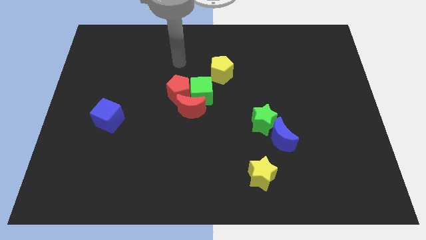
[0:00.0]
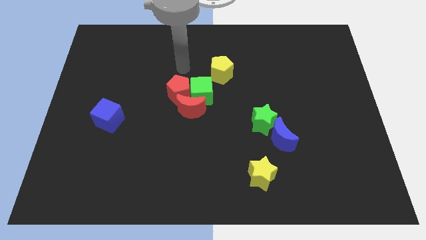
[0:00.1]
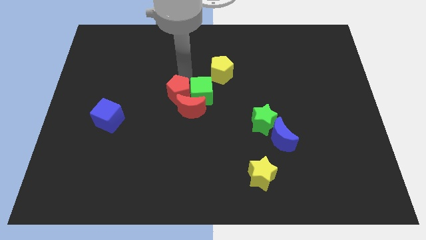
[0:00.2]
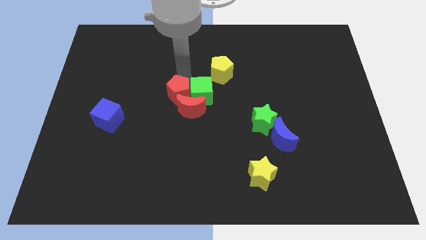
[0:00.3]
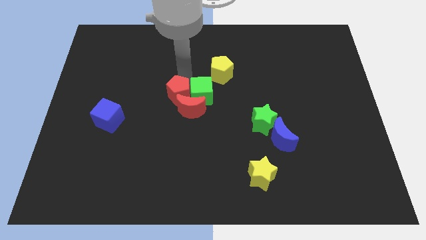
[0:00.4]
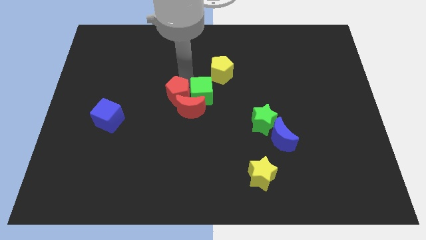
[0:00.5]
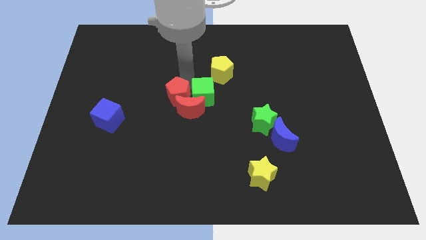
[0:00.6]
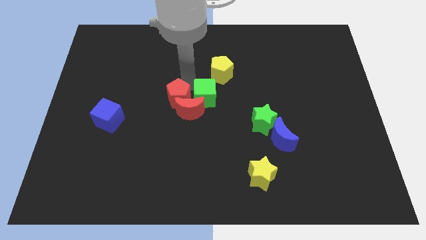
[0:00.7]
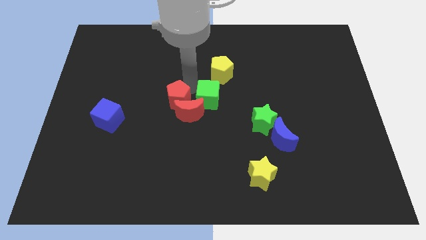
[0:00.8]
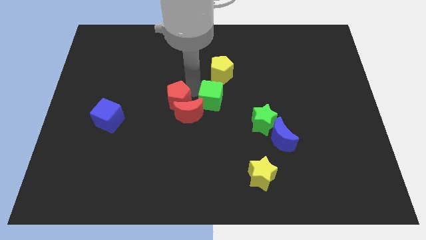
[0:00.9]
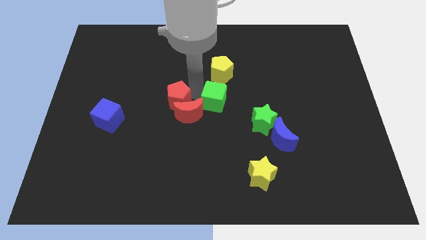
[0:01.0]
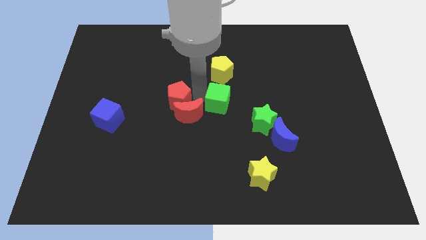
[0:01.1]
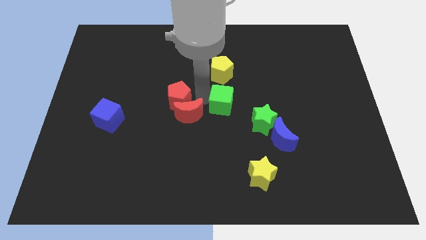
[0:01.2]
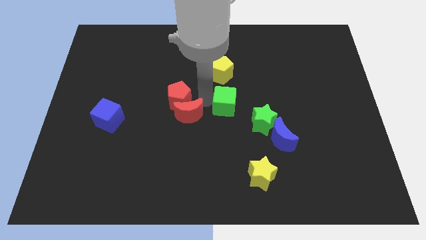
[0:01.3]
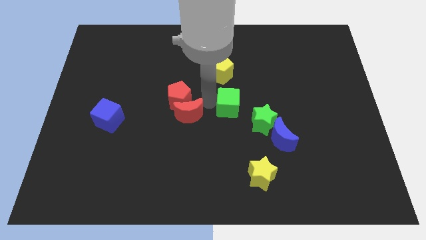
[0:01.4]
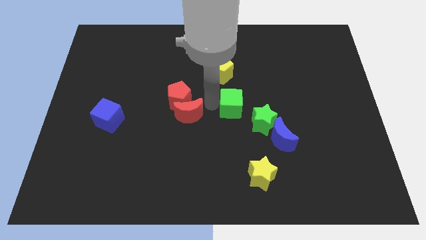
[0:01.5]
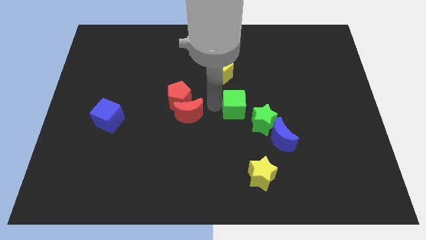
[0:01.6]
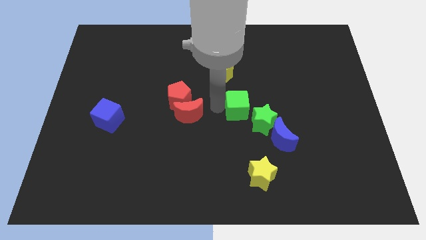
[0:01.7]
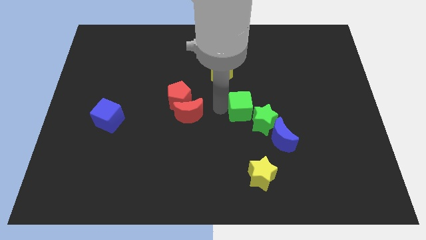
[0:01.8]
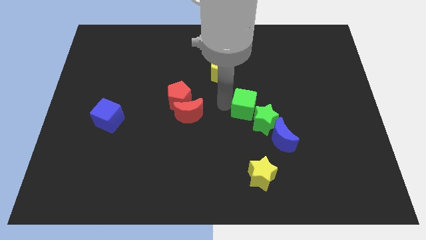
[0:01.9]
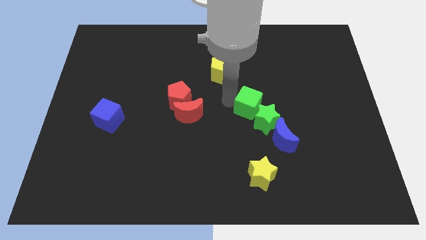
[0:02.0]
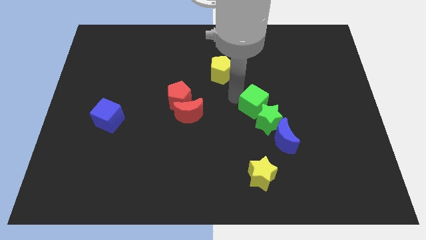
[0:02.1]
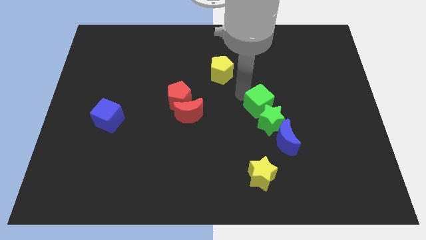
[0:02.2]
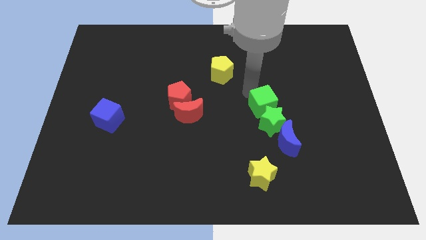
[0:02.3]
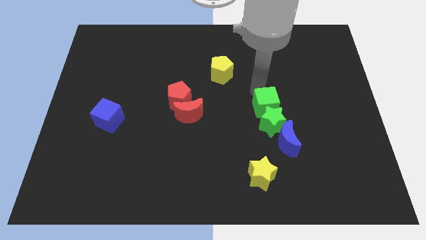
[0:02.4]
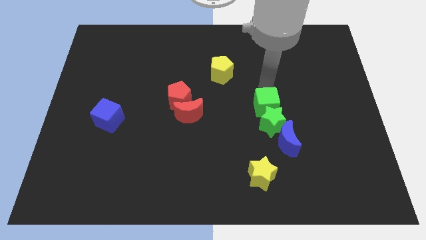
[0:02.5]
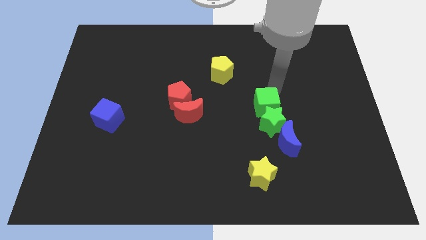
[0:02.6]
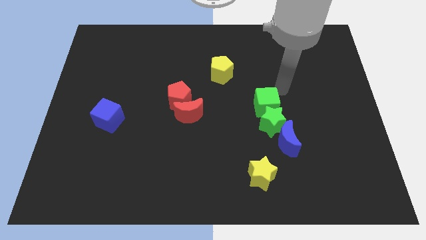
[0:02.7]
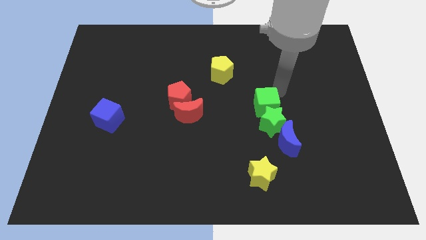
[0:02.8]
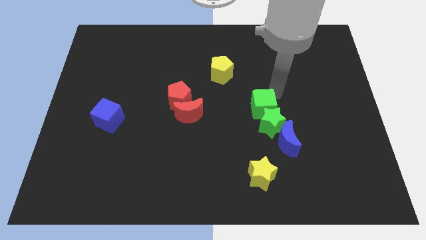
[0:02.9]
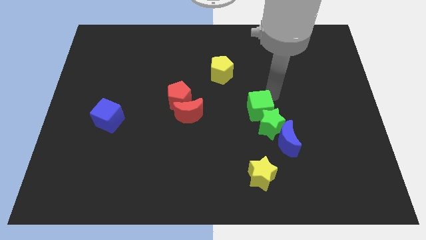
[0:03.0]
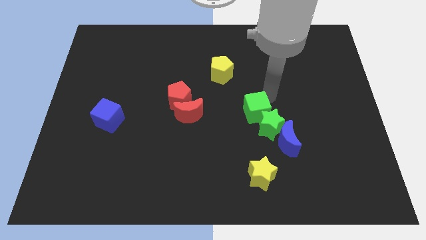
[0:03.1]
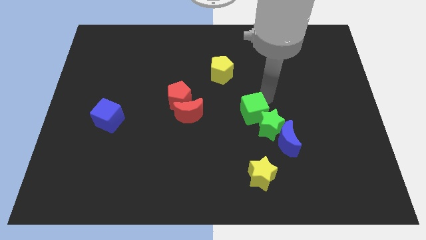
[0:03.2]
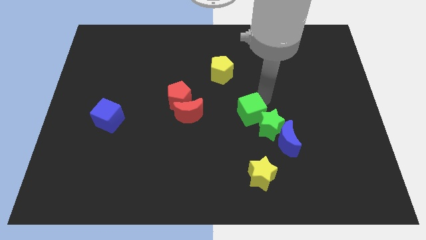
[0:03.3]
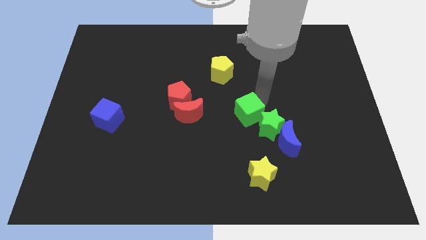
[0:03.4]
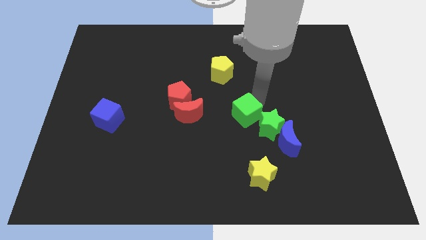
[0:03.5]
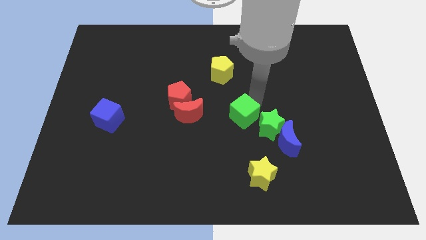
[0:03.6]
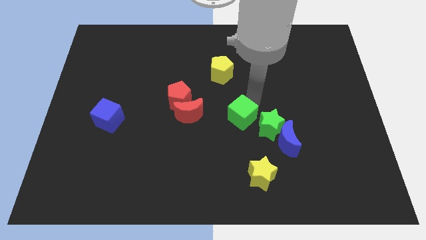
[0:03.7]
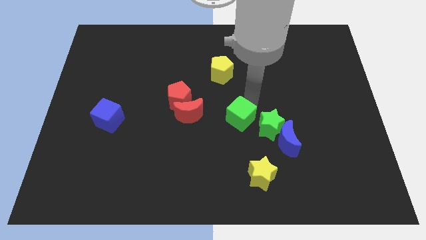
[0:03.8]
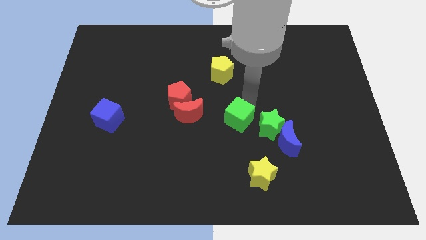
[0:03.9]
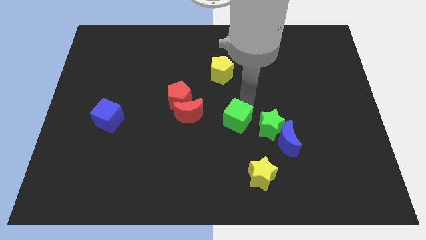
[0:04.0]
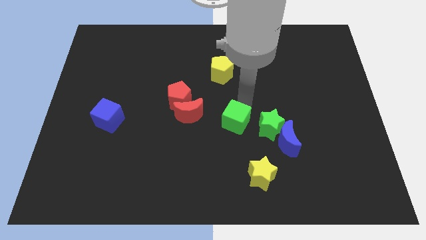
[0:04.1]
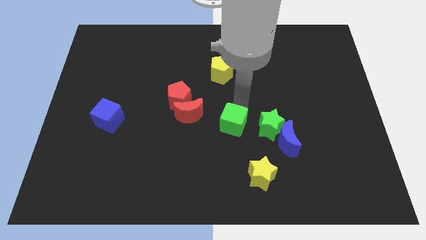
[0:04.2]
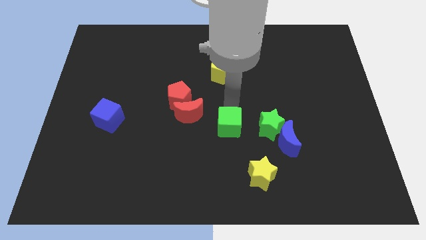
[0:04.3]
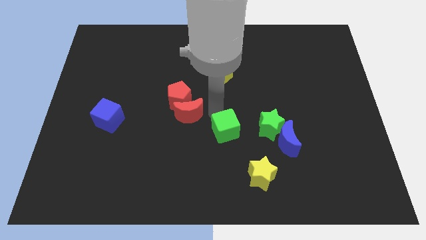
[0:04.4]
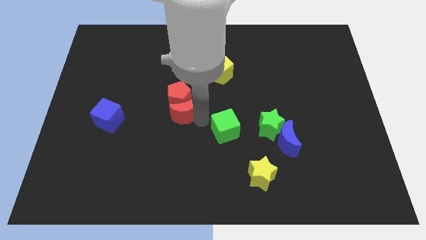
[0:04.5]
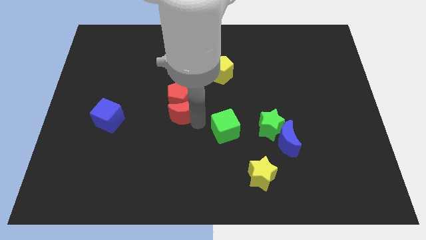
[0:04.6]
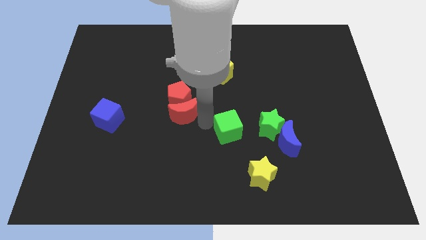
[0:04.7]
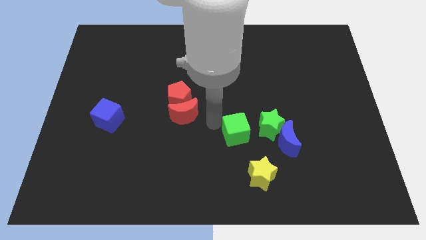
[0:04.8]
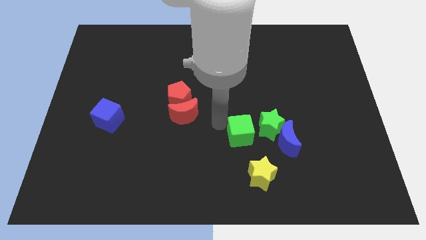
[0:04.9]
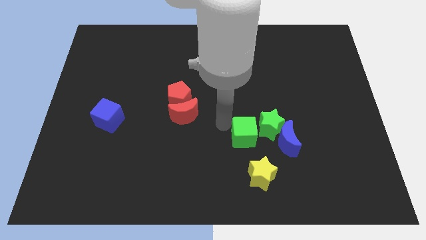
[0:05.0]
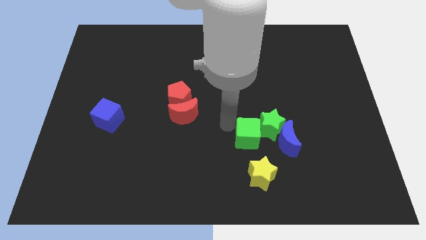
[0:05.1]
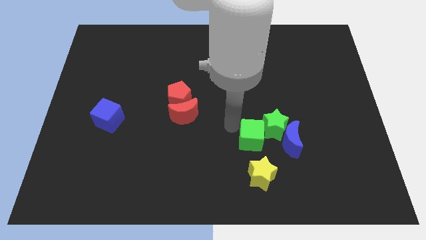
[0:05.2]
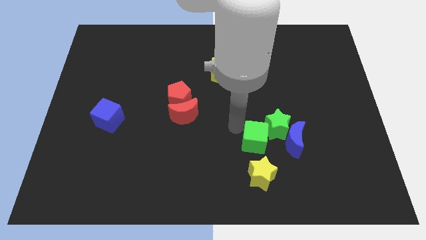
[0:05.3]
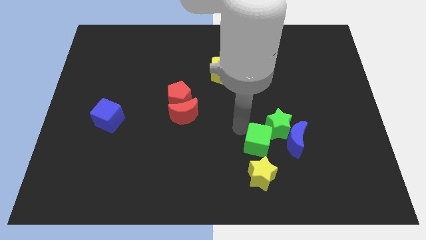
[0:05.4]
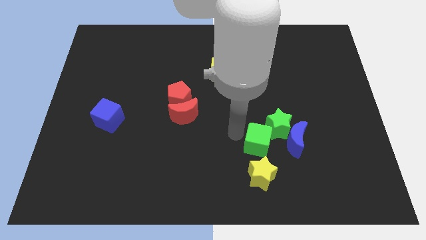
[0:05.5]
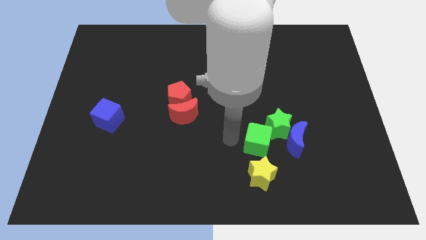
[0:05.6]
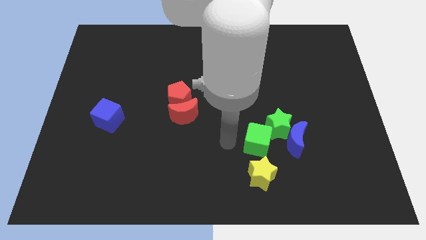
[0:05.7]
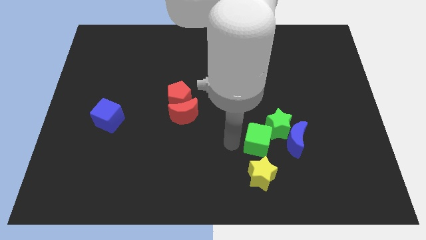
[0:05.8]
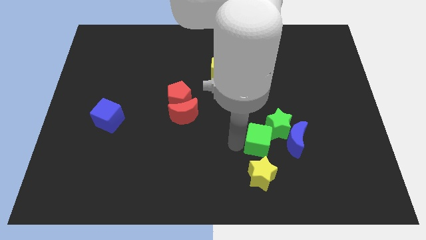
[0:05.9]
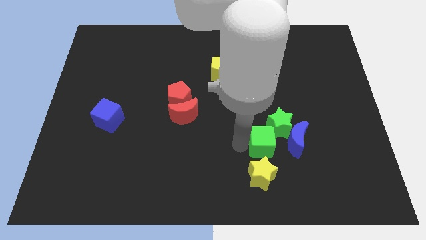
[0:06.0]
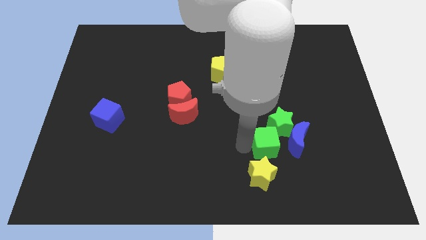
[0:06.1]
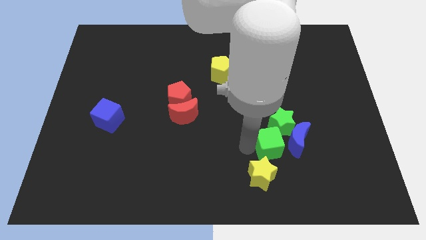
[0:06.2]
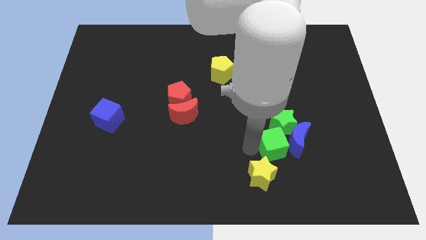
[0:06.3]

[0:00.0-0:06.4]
slide the green cube to the blue moon

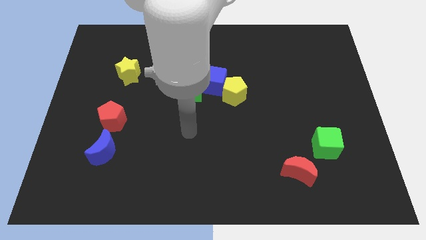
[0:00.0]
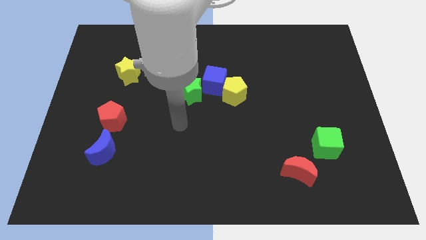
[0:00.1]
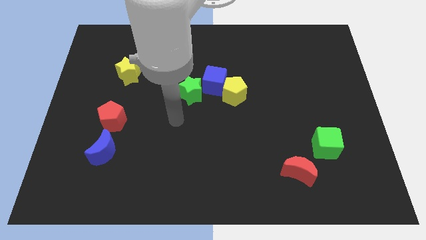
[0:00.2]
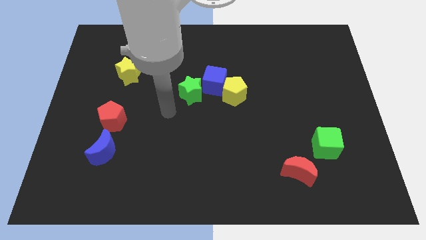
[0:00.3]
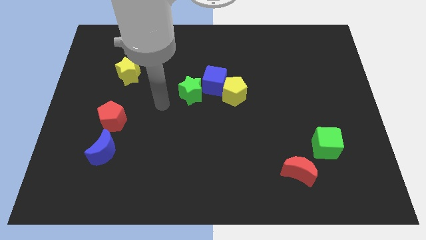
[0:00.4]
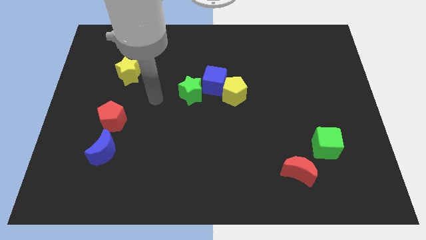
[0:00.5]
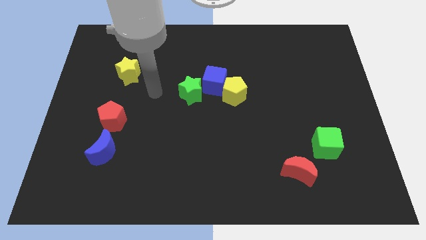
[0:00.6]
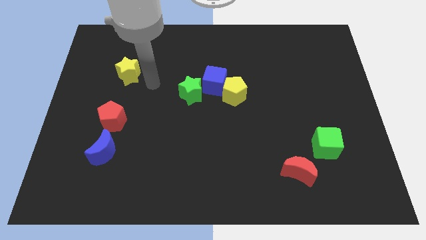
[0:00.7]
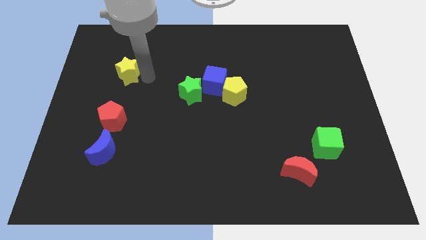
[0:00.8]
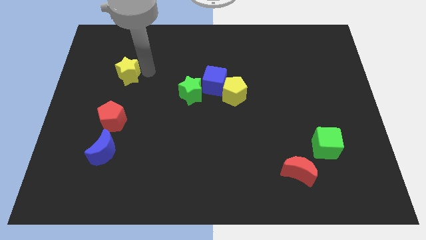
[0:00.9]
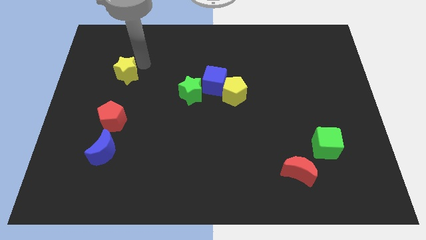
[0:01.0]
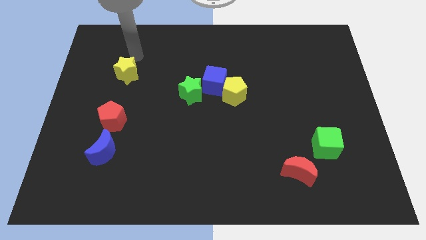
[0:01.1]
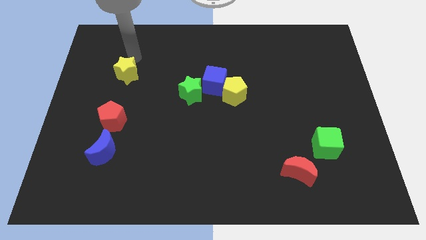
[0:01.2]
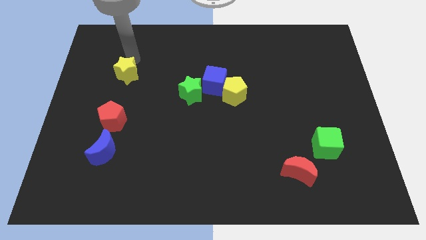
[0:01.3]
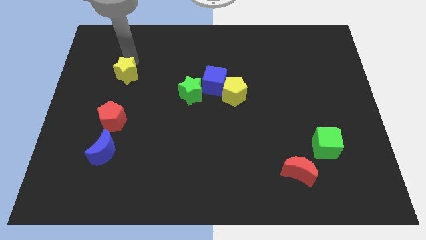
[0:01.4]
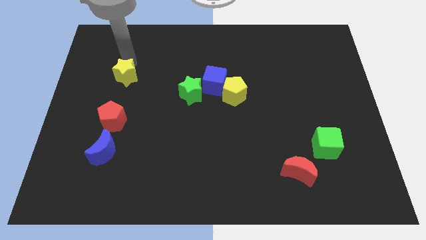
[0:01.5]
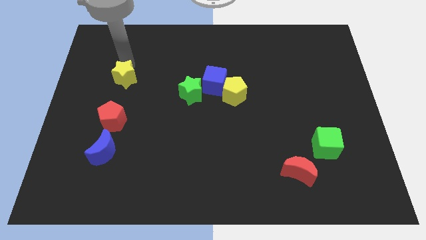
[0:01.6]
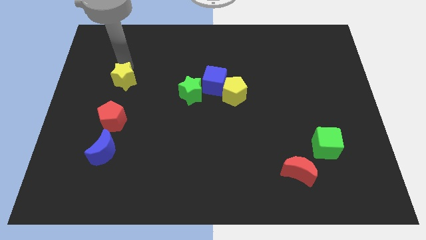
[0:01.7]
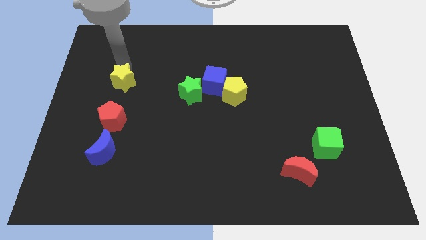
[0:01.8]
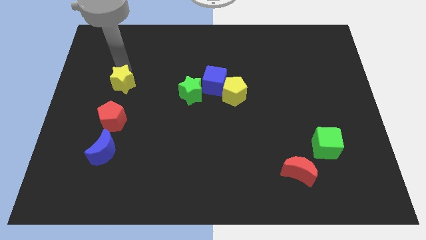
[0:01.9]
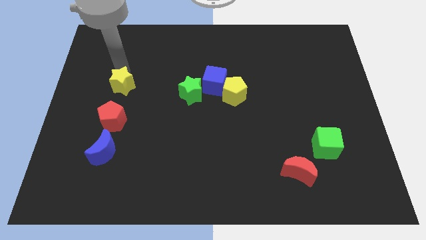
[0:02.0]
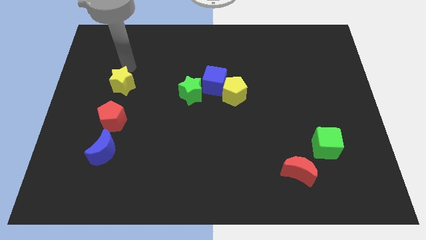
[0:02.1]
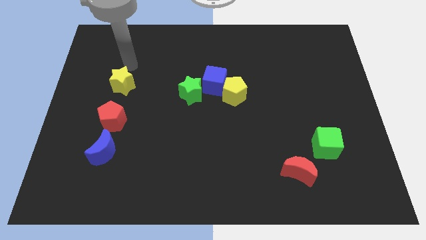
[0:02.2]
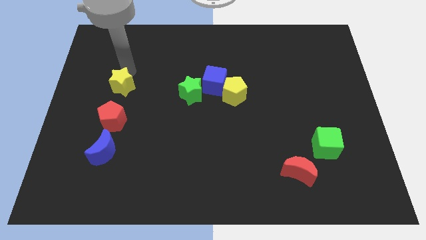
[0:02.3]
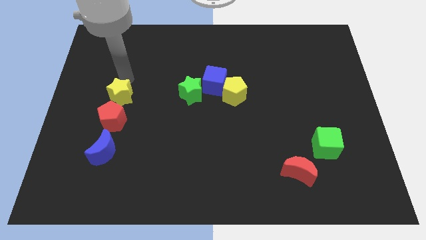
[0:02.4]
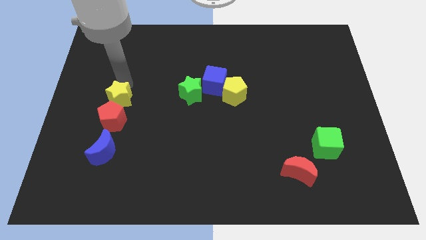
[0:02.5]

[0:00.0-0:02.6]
slide the yellow star towards the red pentagon
